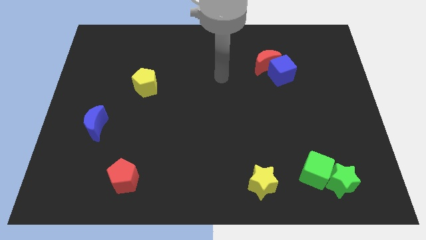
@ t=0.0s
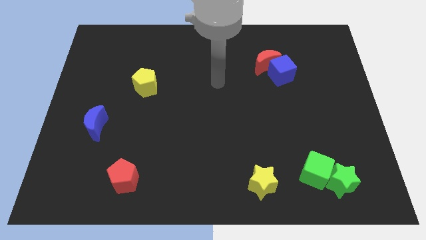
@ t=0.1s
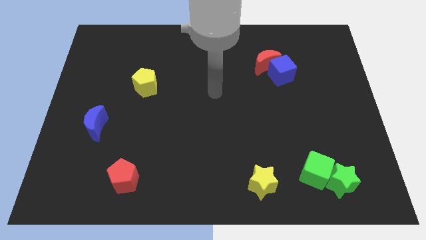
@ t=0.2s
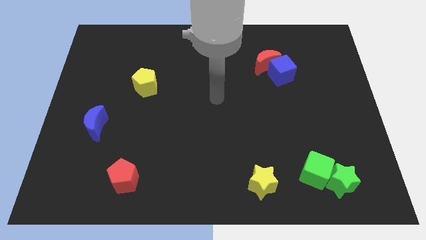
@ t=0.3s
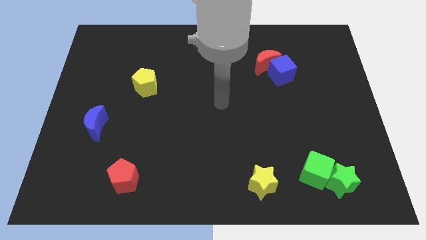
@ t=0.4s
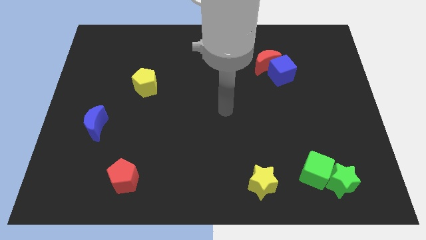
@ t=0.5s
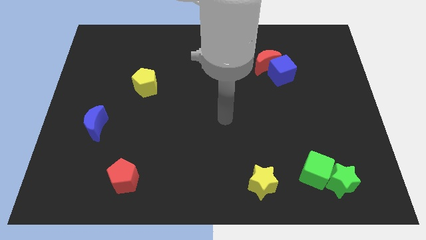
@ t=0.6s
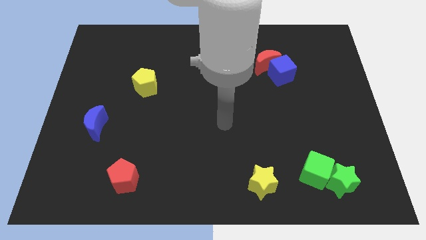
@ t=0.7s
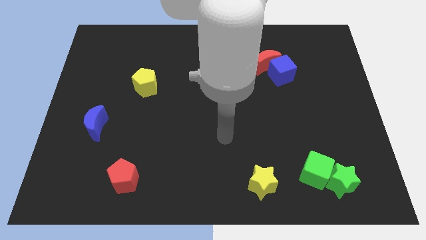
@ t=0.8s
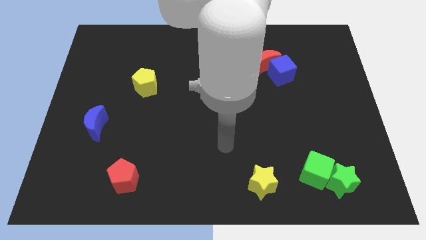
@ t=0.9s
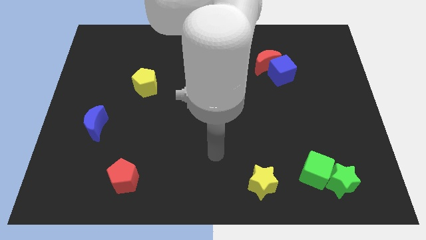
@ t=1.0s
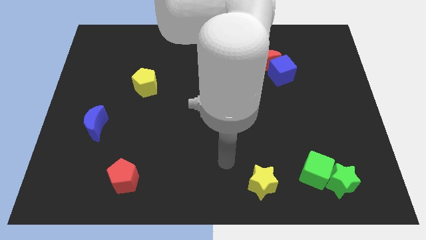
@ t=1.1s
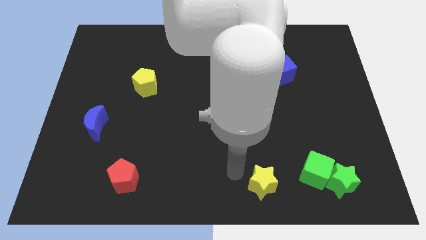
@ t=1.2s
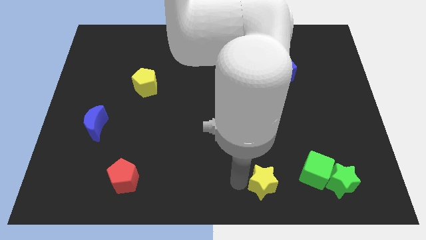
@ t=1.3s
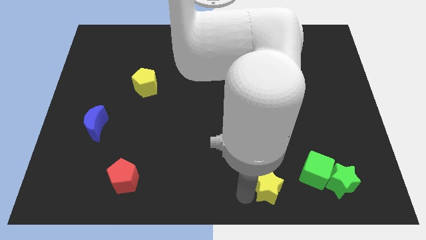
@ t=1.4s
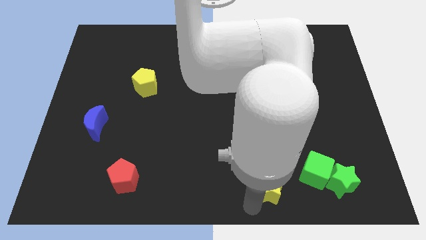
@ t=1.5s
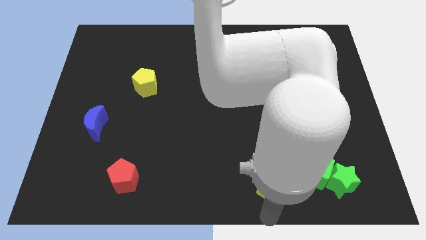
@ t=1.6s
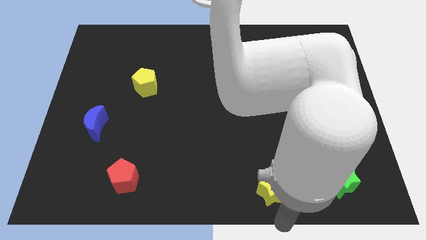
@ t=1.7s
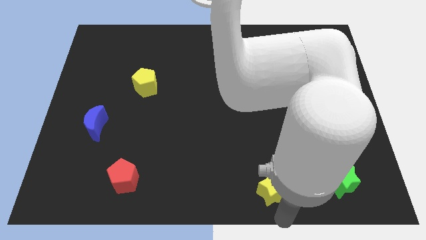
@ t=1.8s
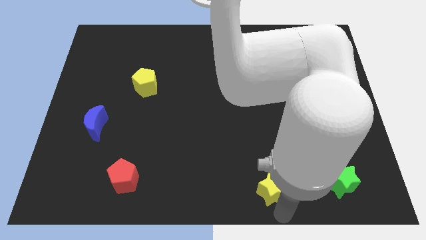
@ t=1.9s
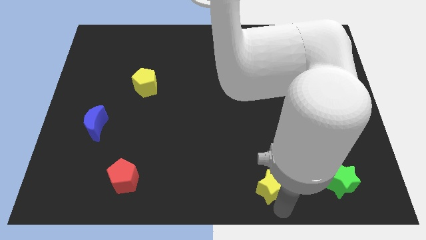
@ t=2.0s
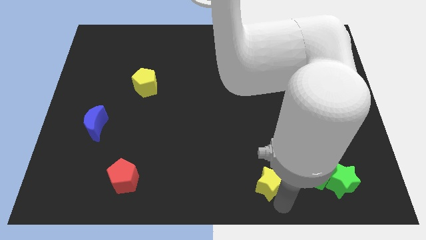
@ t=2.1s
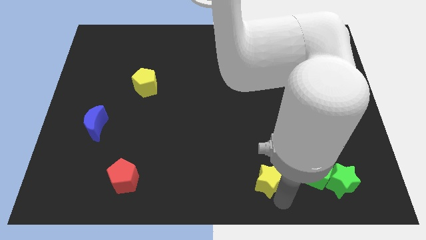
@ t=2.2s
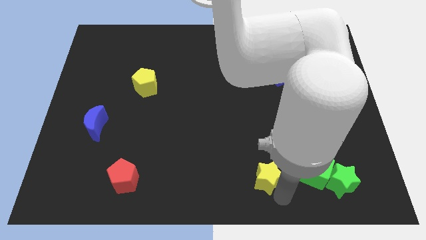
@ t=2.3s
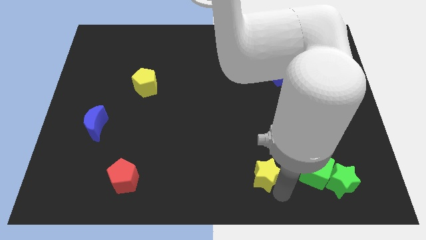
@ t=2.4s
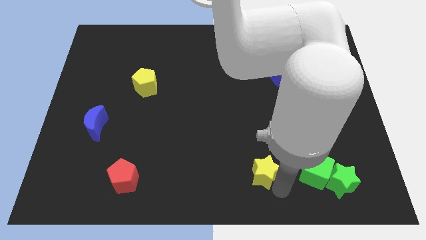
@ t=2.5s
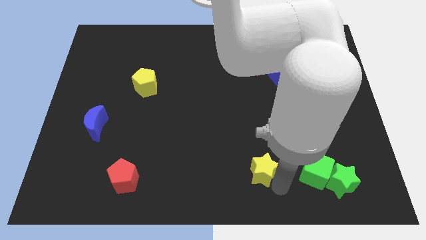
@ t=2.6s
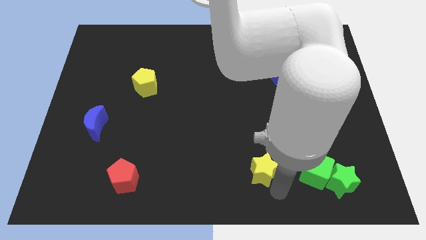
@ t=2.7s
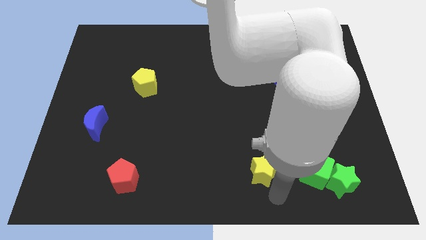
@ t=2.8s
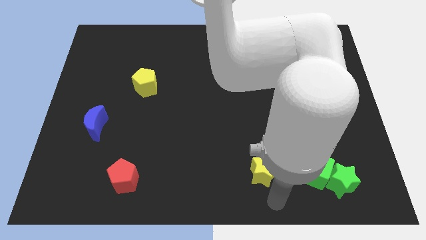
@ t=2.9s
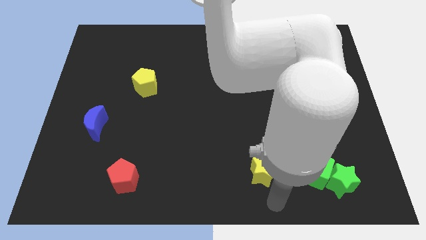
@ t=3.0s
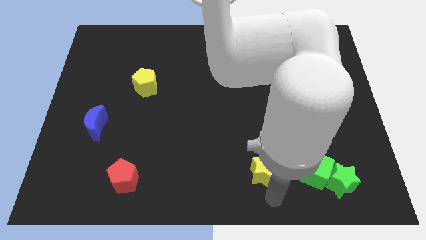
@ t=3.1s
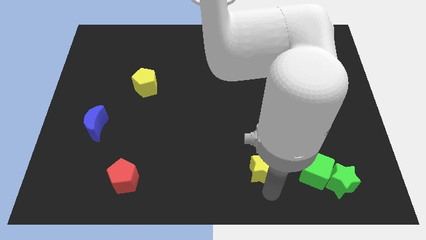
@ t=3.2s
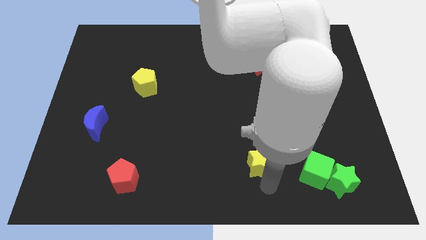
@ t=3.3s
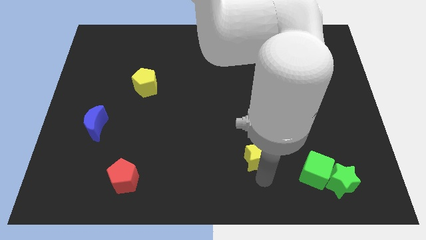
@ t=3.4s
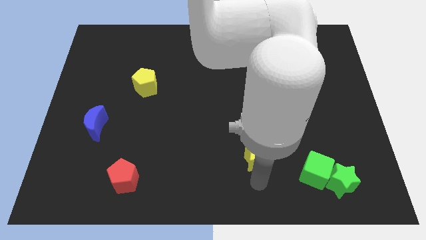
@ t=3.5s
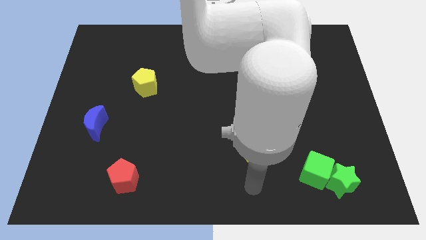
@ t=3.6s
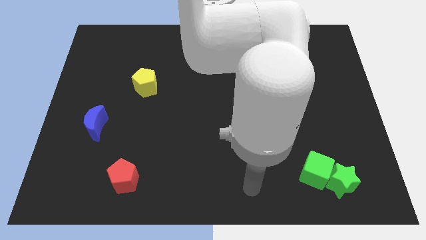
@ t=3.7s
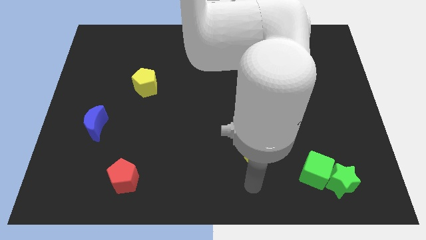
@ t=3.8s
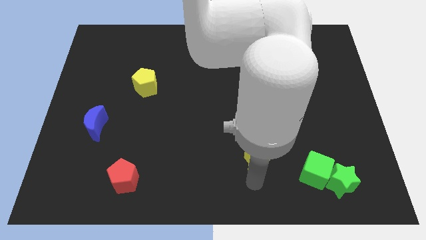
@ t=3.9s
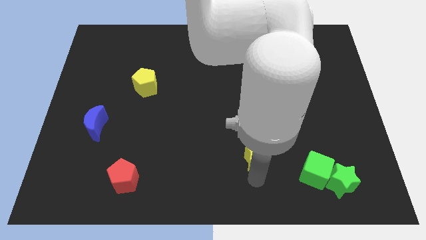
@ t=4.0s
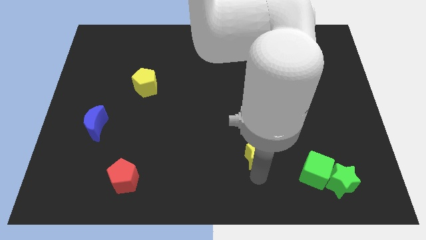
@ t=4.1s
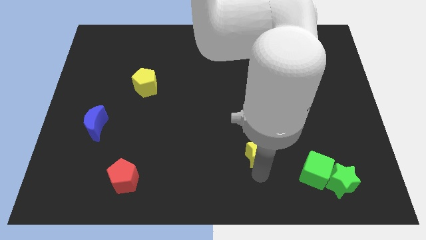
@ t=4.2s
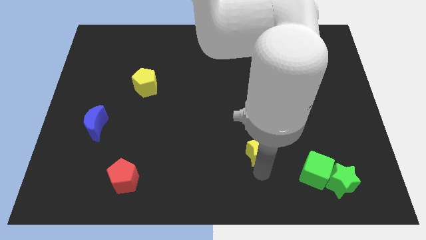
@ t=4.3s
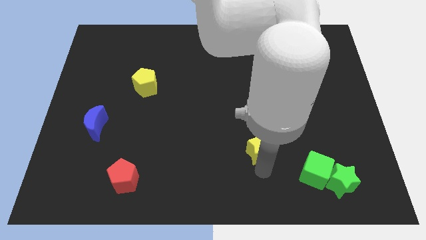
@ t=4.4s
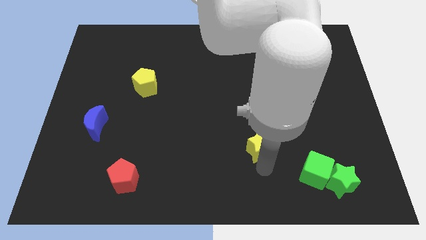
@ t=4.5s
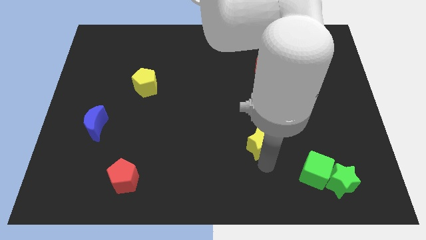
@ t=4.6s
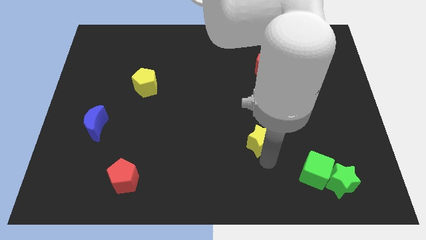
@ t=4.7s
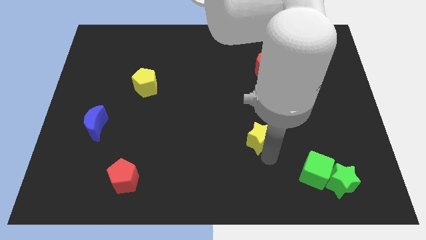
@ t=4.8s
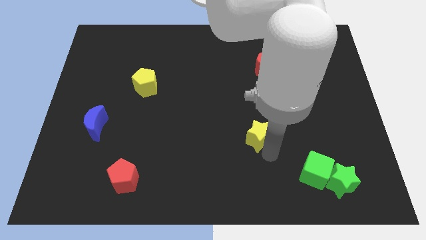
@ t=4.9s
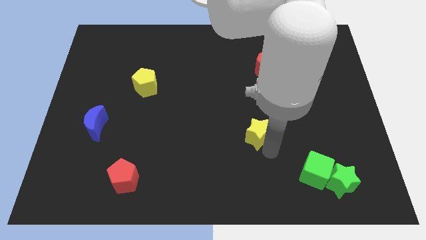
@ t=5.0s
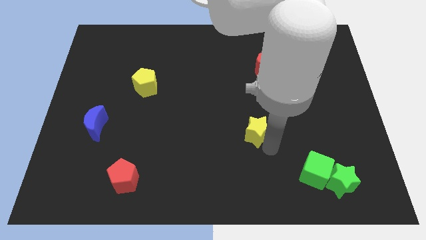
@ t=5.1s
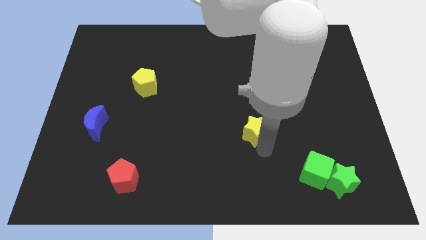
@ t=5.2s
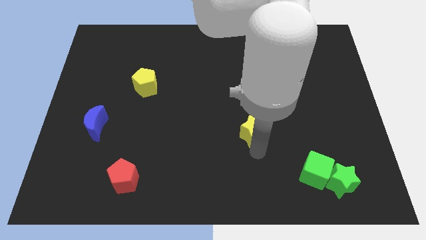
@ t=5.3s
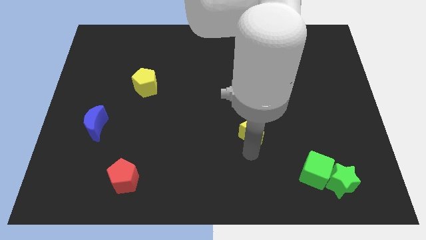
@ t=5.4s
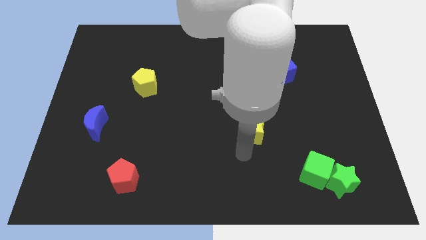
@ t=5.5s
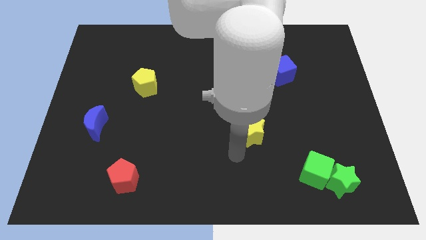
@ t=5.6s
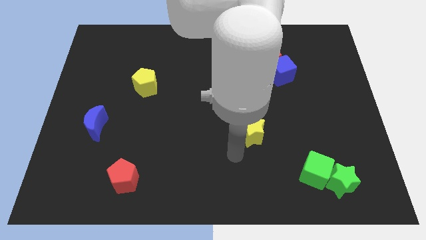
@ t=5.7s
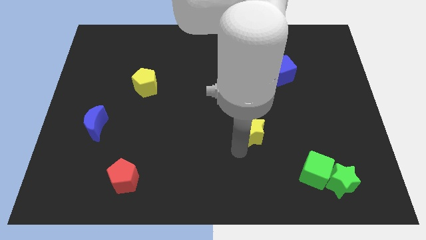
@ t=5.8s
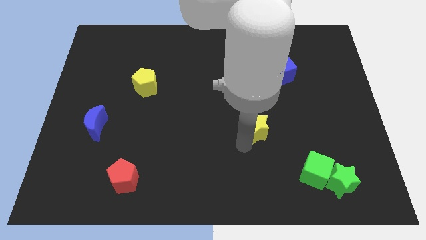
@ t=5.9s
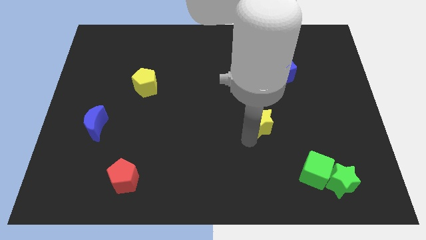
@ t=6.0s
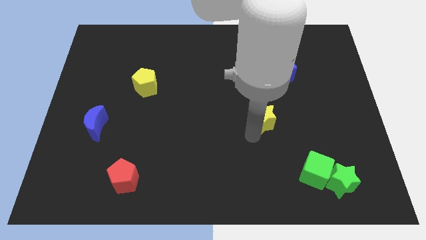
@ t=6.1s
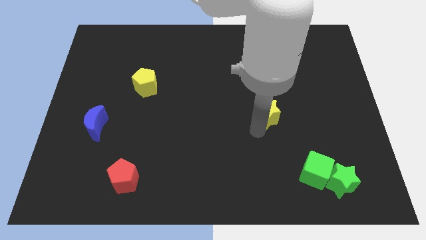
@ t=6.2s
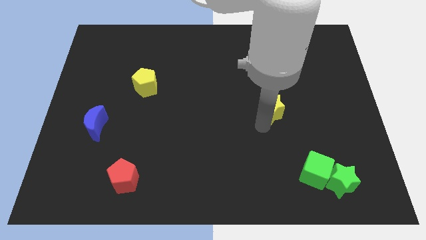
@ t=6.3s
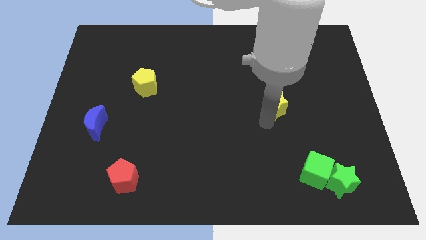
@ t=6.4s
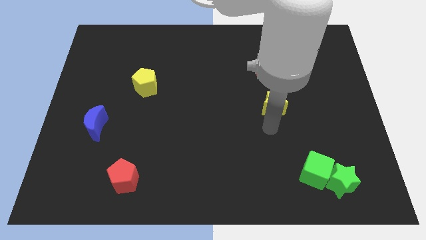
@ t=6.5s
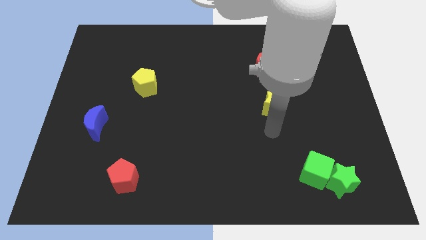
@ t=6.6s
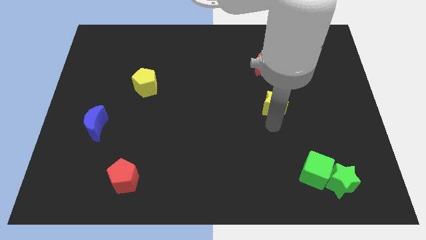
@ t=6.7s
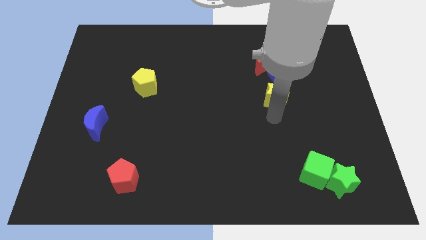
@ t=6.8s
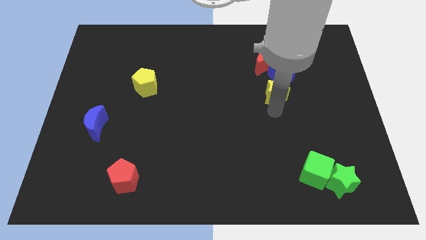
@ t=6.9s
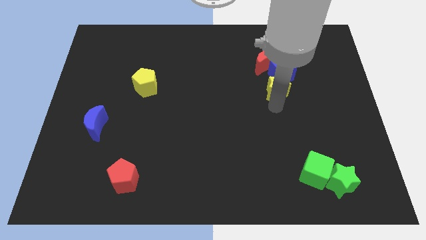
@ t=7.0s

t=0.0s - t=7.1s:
slide the yellow star to the blue cube

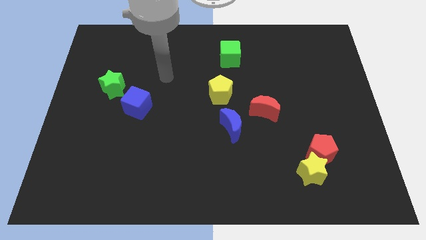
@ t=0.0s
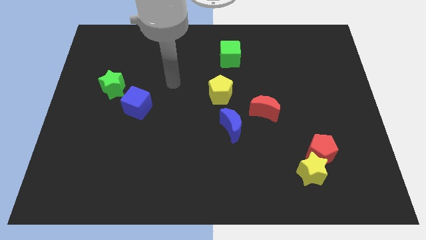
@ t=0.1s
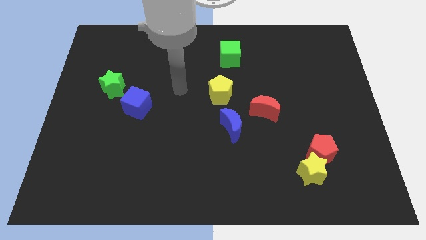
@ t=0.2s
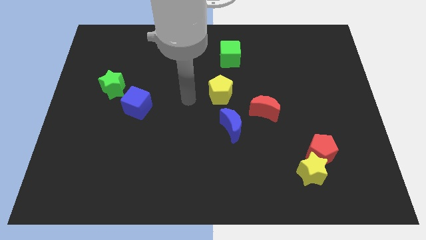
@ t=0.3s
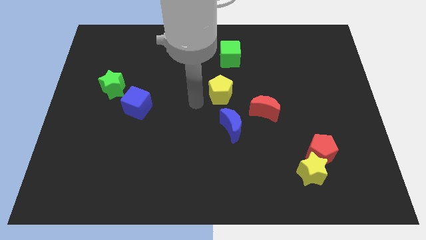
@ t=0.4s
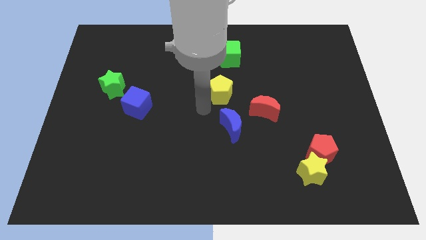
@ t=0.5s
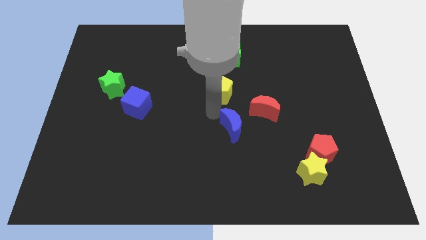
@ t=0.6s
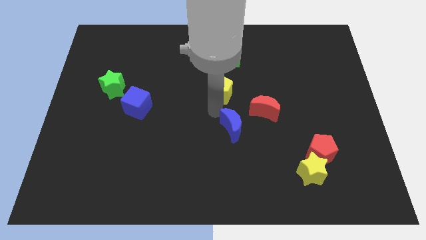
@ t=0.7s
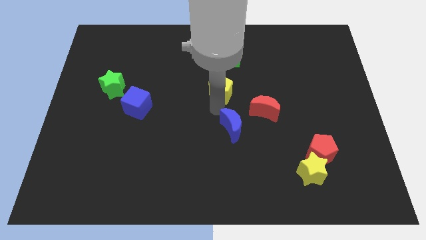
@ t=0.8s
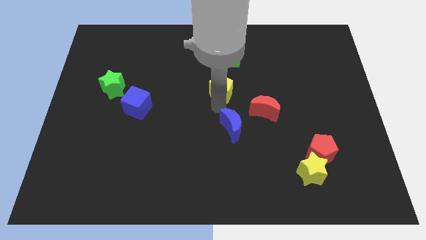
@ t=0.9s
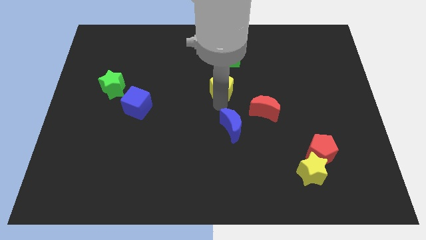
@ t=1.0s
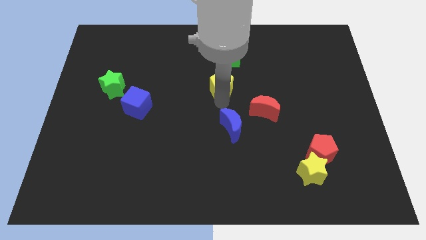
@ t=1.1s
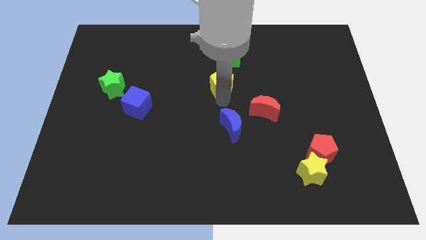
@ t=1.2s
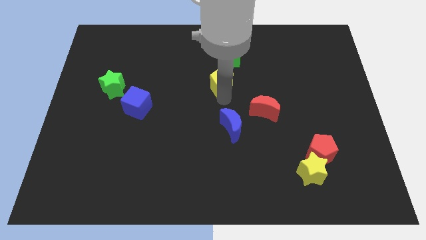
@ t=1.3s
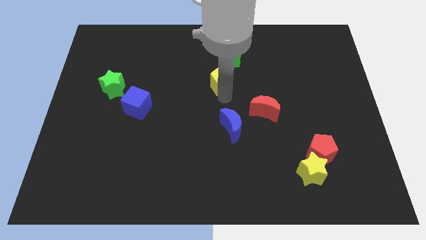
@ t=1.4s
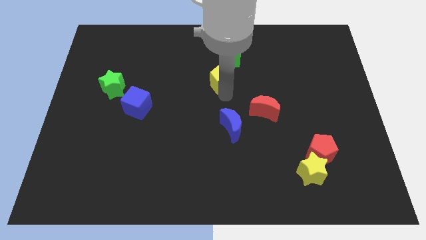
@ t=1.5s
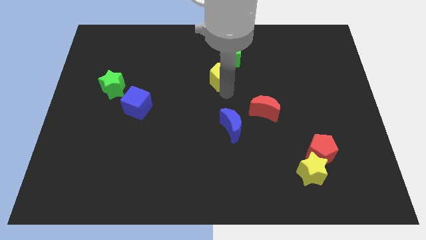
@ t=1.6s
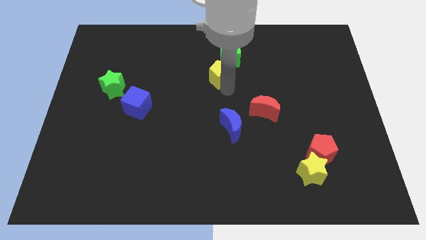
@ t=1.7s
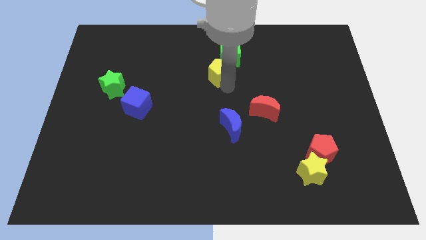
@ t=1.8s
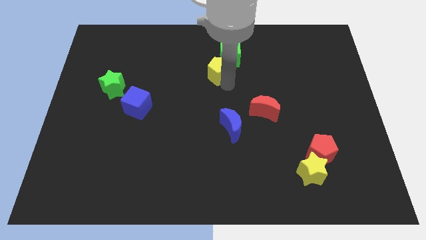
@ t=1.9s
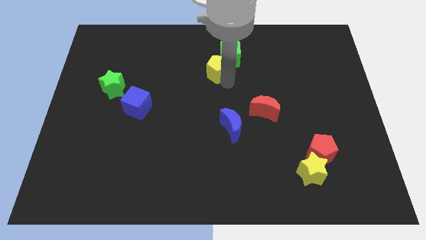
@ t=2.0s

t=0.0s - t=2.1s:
put the yellow pentagon towards the green cube
